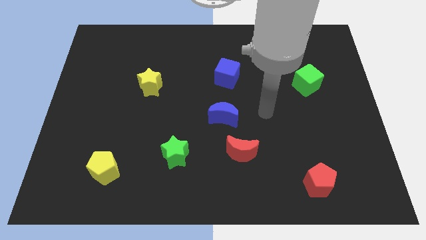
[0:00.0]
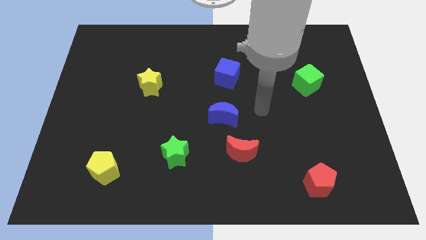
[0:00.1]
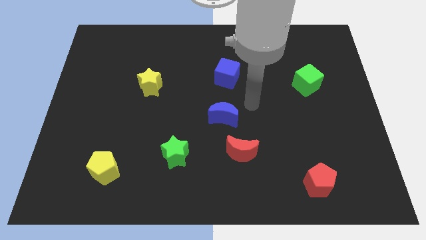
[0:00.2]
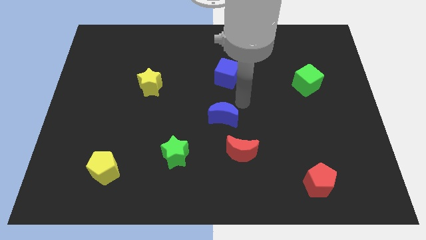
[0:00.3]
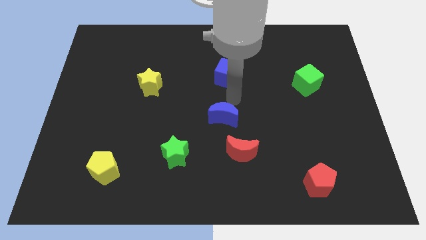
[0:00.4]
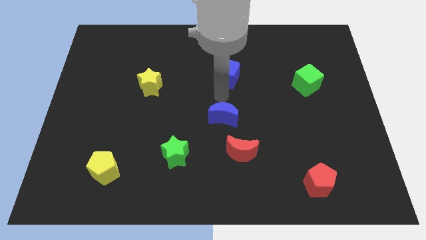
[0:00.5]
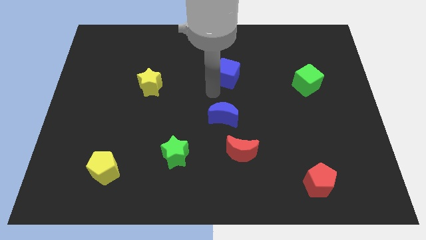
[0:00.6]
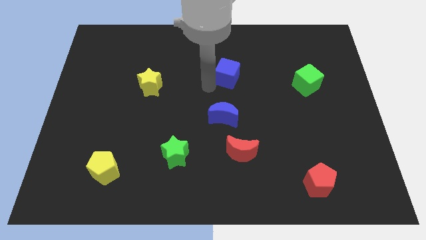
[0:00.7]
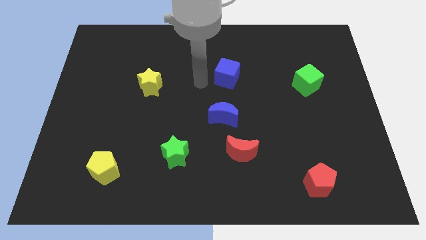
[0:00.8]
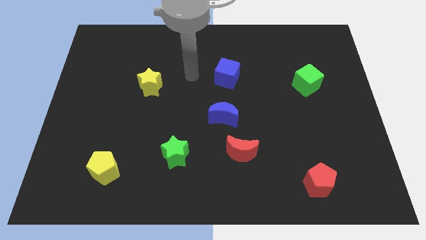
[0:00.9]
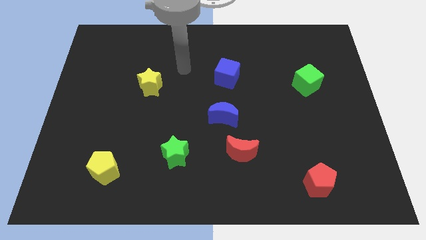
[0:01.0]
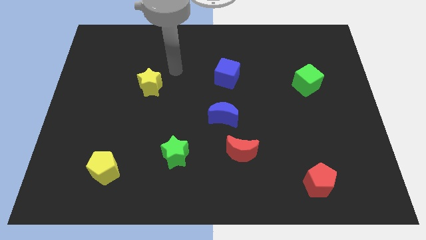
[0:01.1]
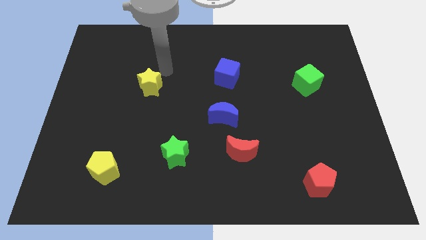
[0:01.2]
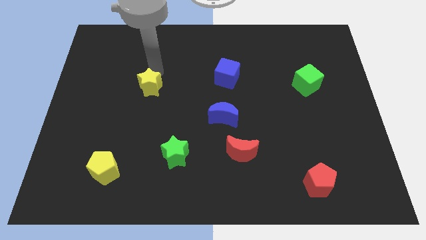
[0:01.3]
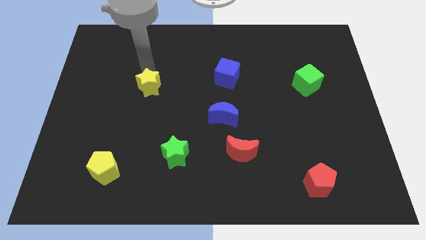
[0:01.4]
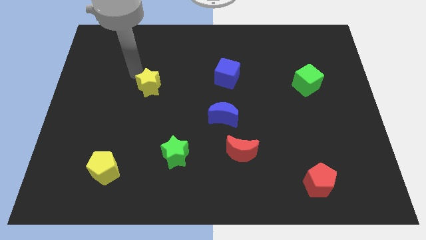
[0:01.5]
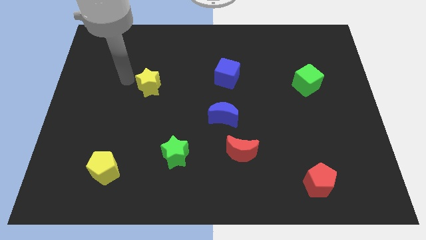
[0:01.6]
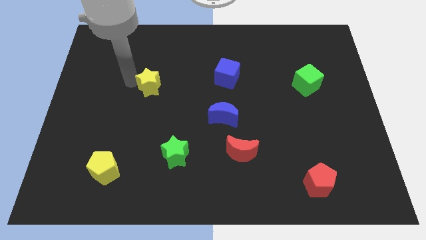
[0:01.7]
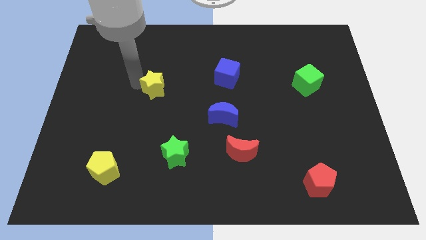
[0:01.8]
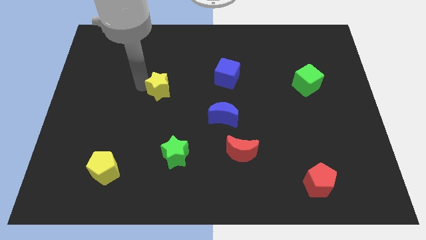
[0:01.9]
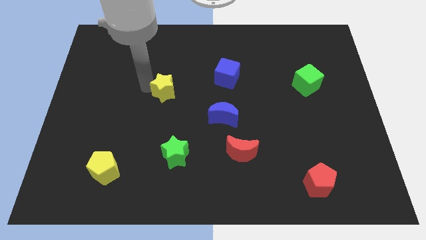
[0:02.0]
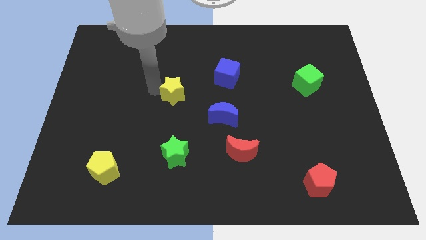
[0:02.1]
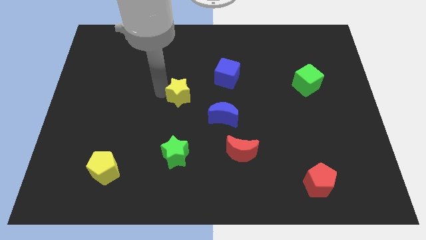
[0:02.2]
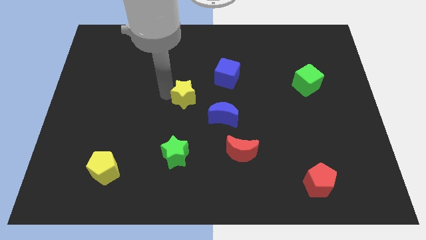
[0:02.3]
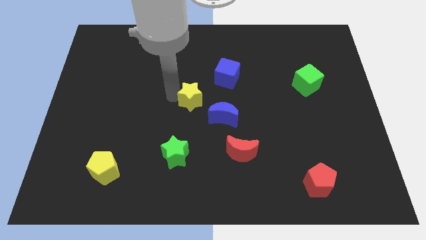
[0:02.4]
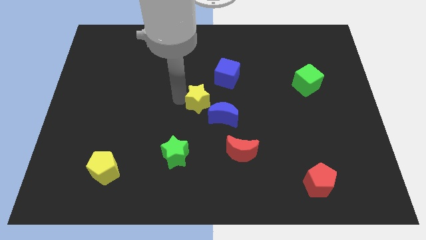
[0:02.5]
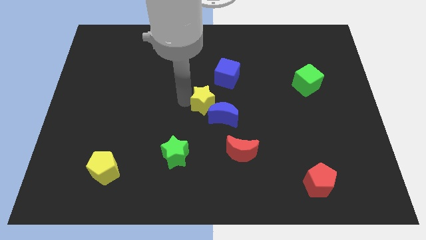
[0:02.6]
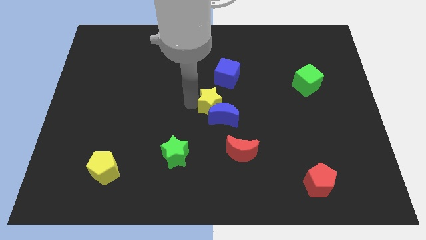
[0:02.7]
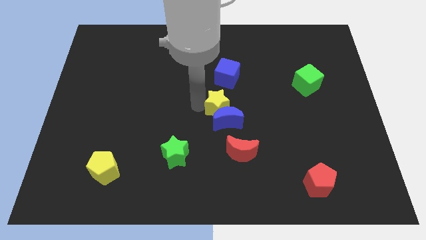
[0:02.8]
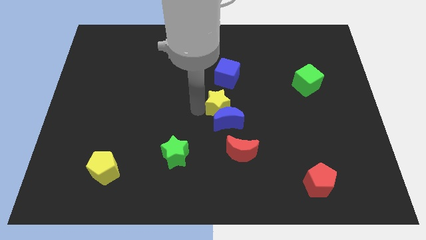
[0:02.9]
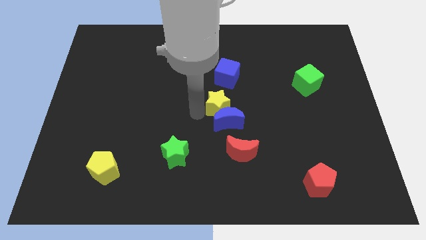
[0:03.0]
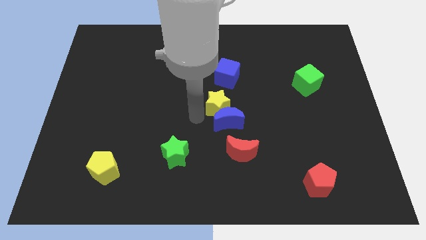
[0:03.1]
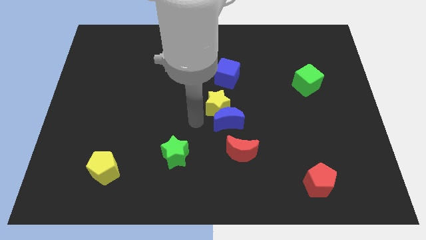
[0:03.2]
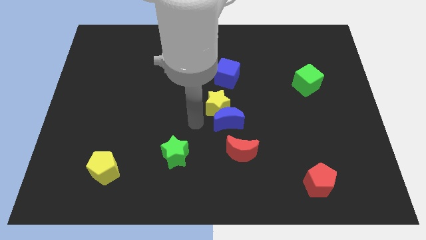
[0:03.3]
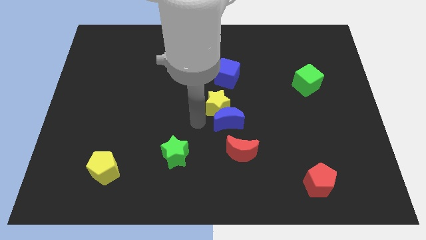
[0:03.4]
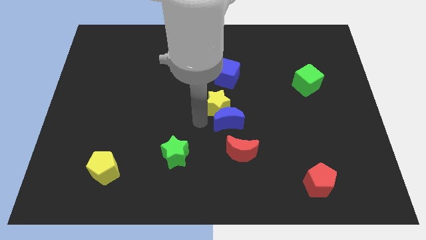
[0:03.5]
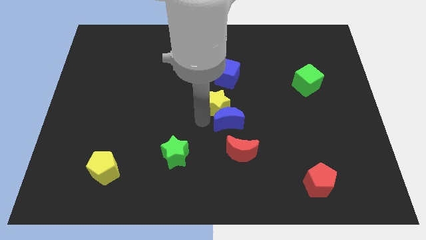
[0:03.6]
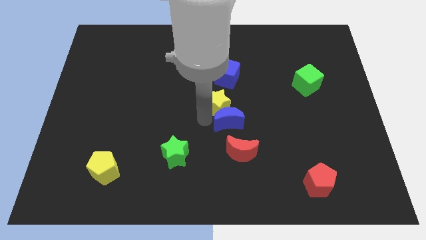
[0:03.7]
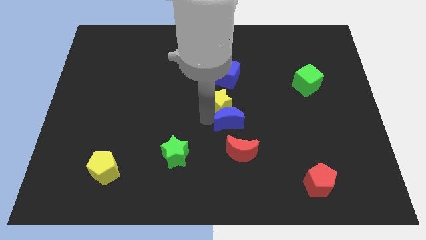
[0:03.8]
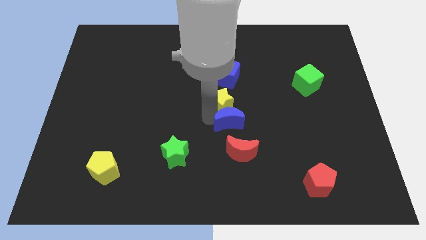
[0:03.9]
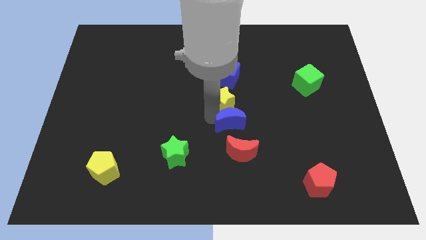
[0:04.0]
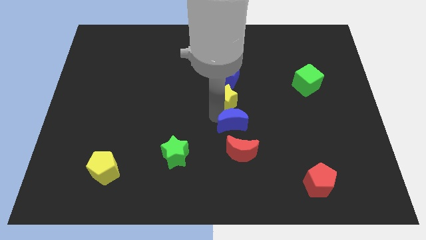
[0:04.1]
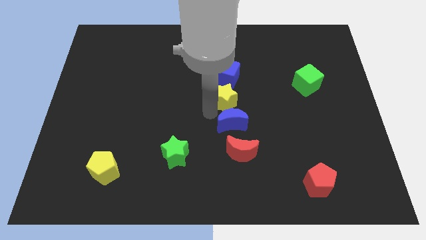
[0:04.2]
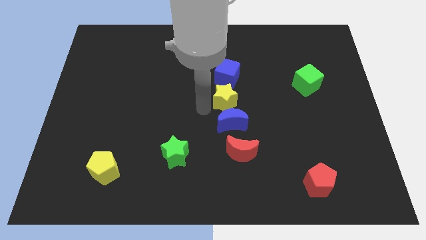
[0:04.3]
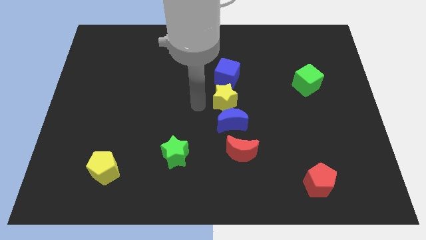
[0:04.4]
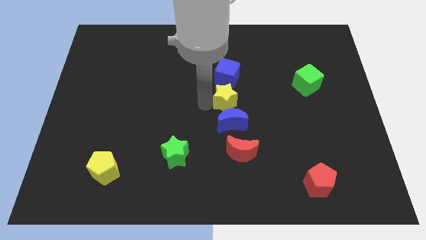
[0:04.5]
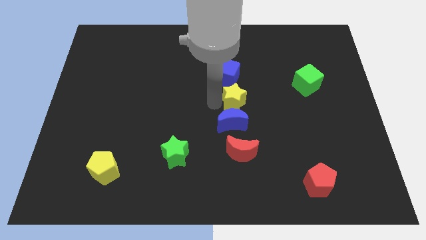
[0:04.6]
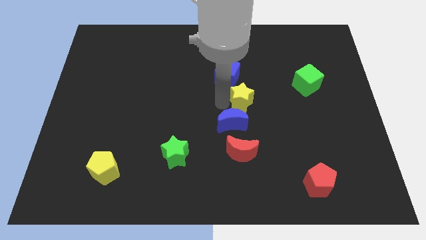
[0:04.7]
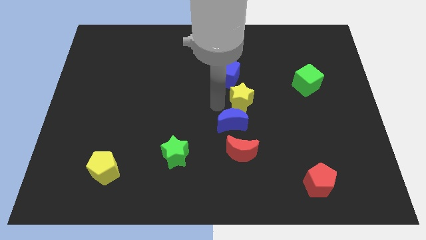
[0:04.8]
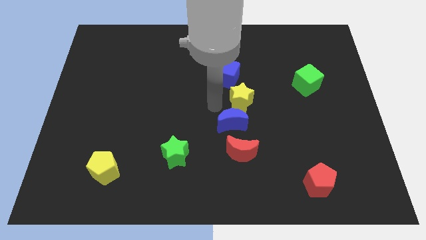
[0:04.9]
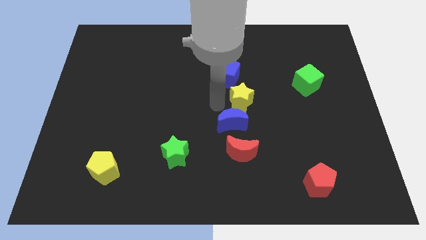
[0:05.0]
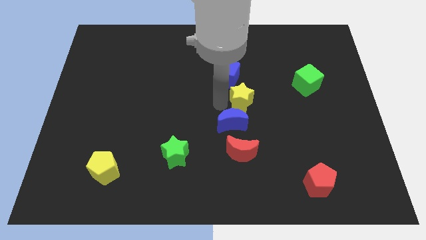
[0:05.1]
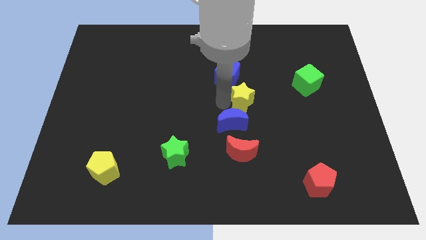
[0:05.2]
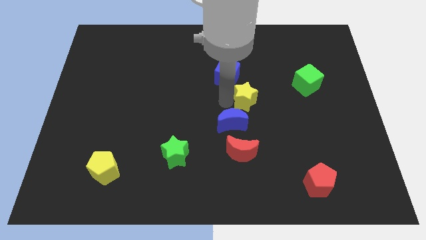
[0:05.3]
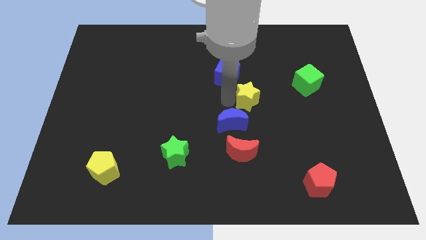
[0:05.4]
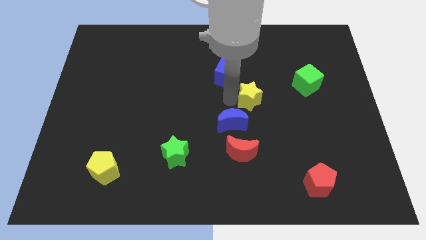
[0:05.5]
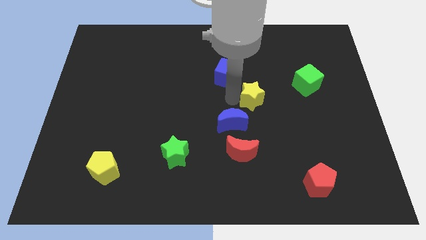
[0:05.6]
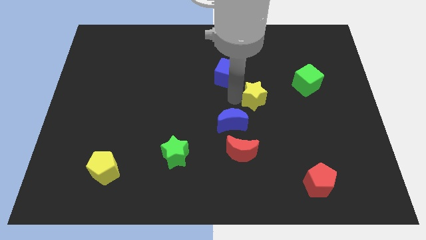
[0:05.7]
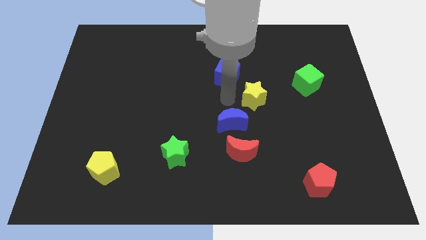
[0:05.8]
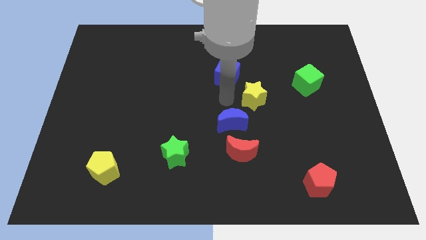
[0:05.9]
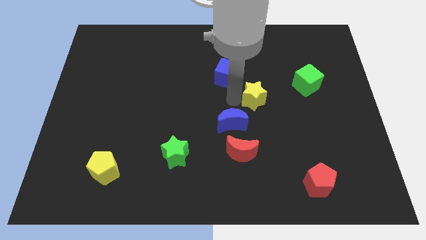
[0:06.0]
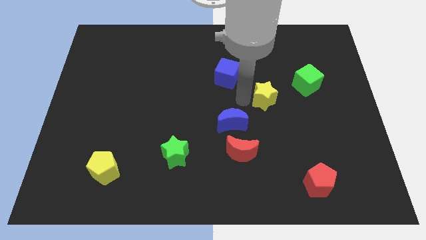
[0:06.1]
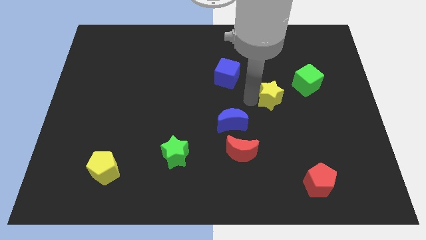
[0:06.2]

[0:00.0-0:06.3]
put the yellow star to the bottom left side of the green cube
